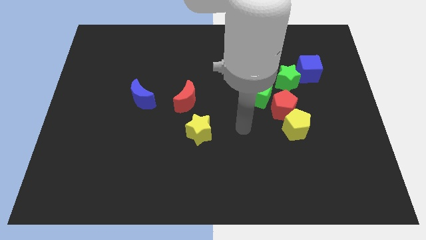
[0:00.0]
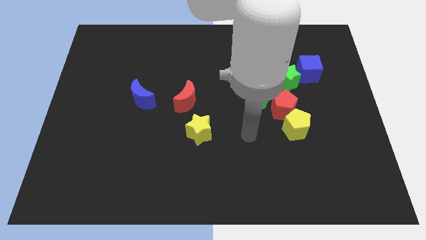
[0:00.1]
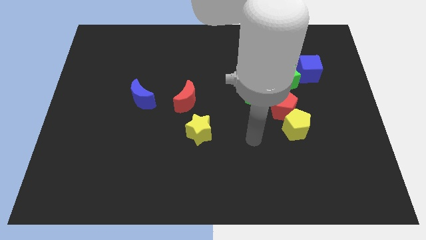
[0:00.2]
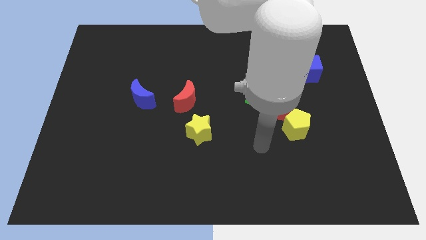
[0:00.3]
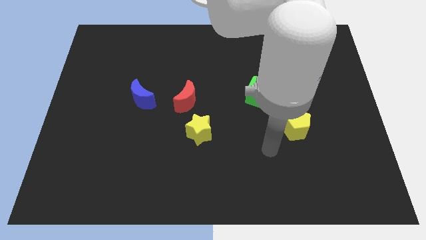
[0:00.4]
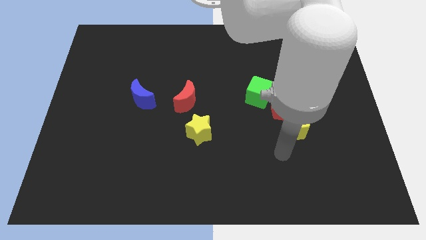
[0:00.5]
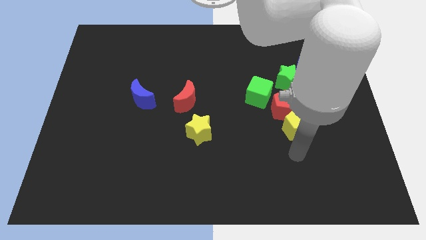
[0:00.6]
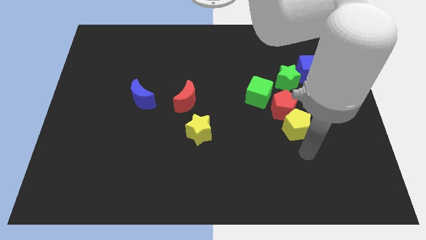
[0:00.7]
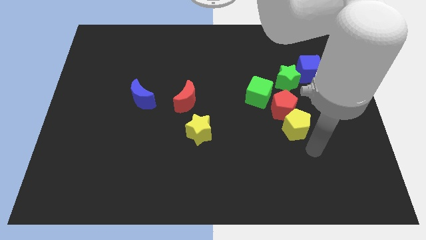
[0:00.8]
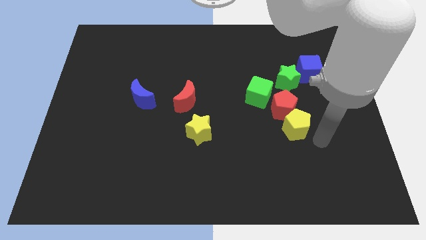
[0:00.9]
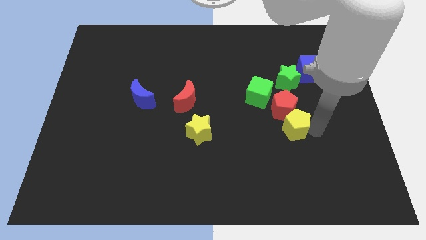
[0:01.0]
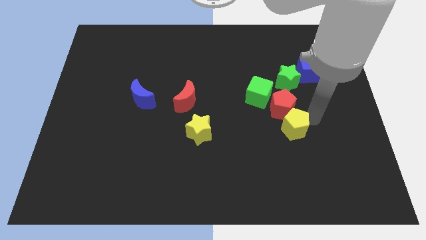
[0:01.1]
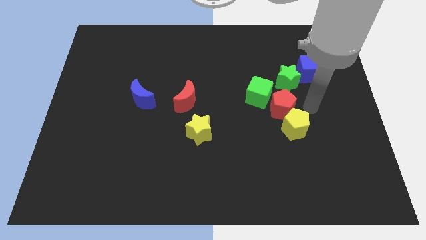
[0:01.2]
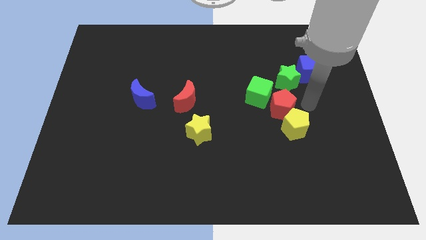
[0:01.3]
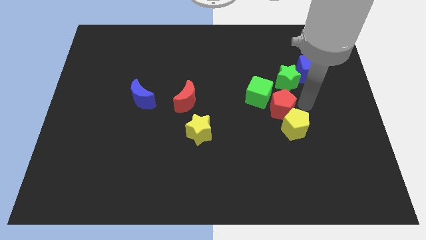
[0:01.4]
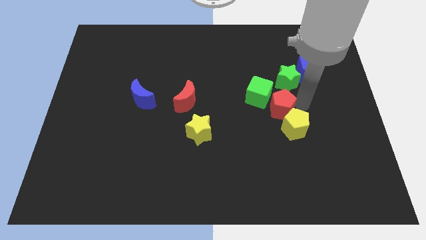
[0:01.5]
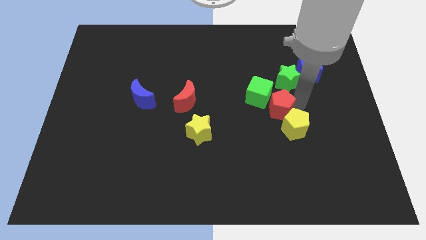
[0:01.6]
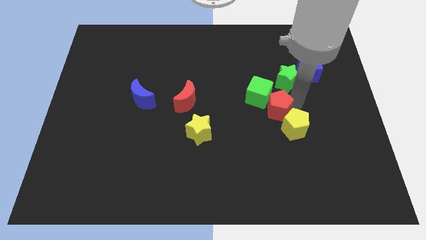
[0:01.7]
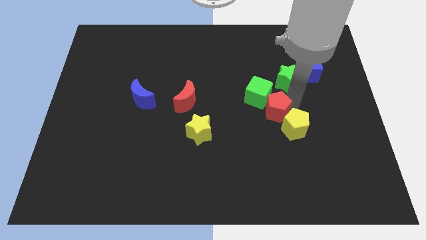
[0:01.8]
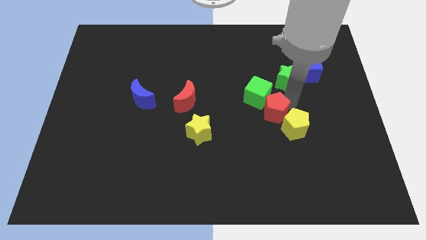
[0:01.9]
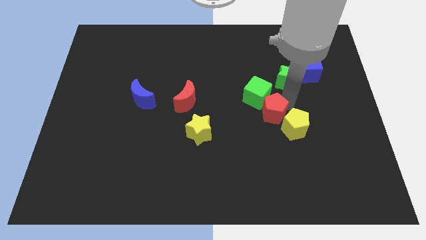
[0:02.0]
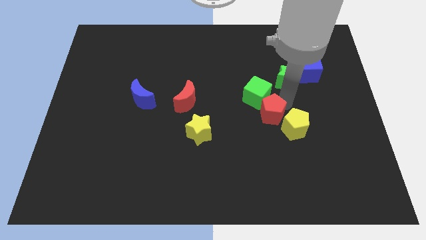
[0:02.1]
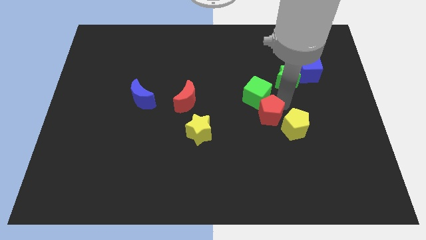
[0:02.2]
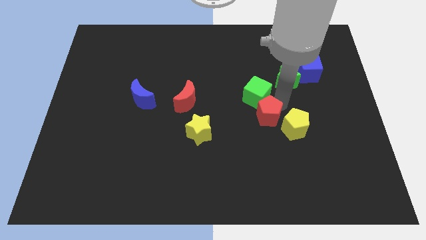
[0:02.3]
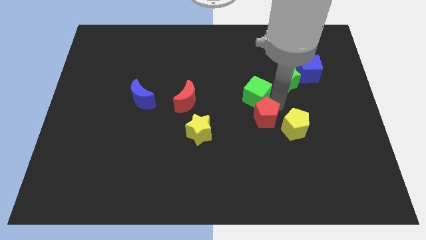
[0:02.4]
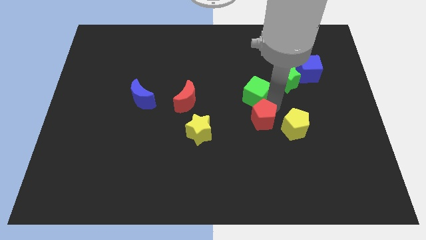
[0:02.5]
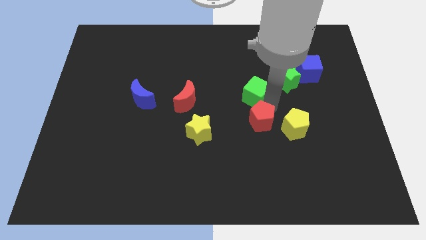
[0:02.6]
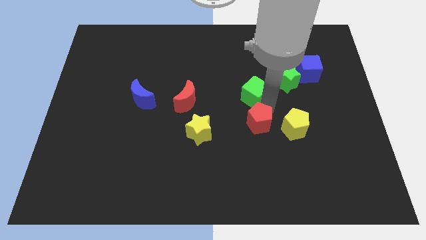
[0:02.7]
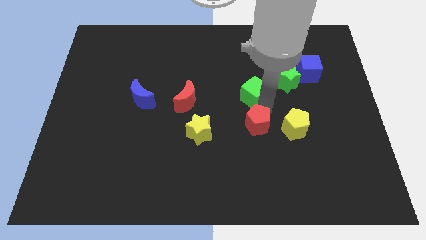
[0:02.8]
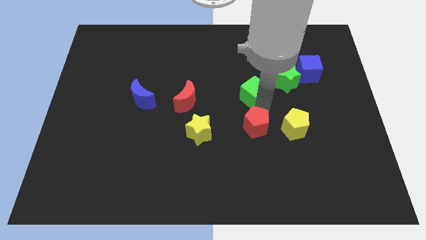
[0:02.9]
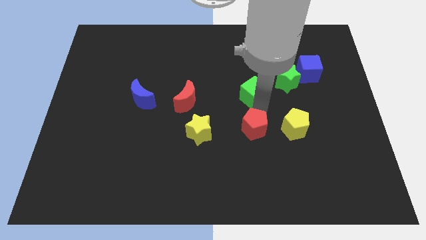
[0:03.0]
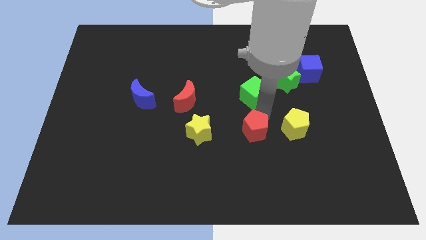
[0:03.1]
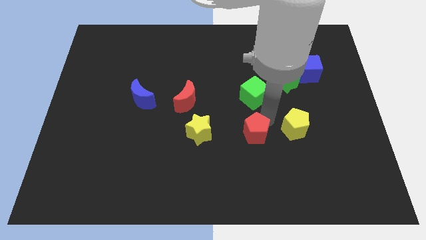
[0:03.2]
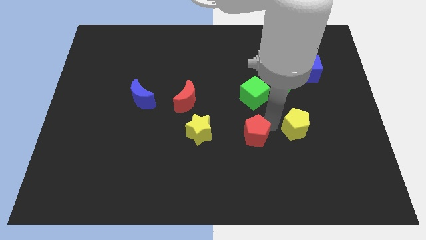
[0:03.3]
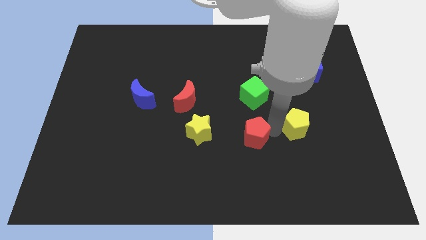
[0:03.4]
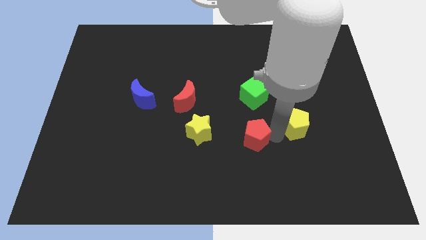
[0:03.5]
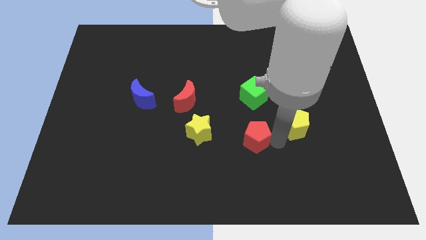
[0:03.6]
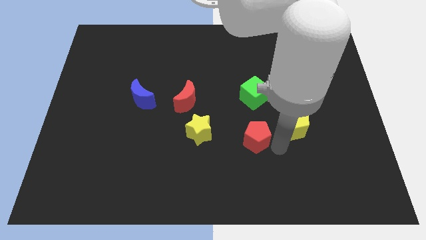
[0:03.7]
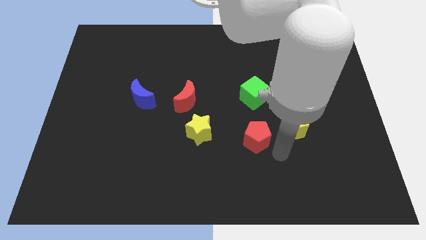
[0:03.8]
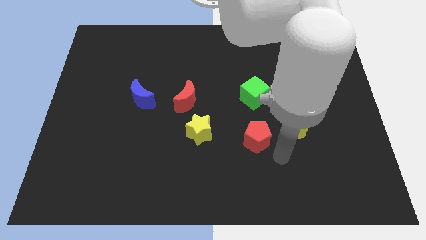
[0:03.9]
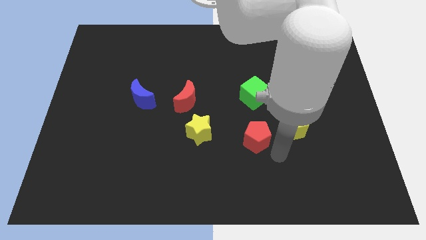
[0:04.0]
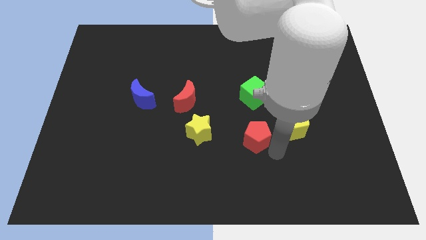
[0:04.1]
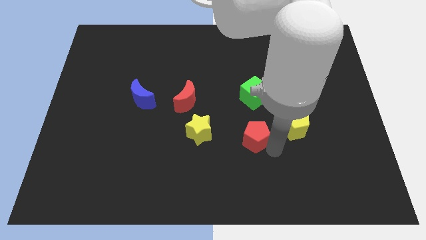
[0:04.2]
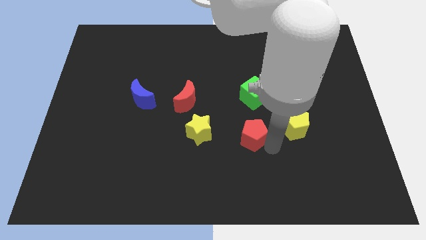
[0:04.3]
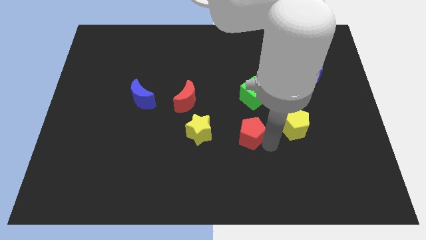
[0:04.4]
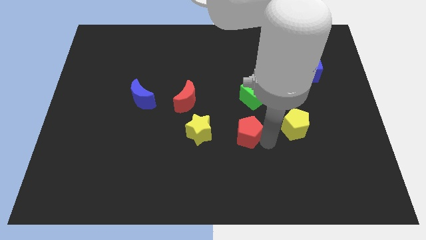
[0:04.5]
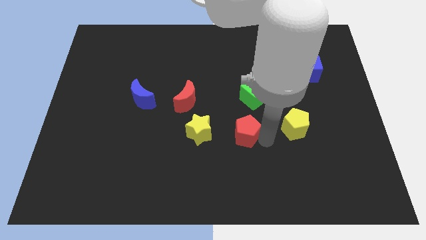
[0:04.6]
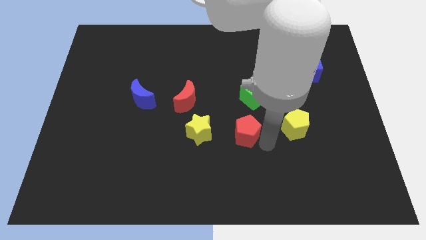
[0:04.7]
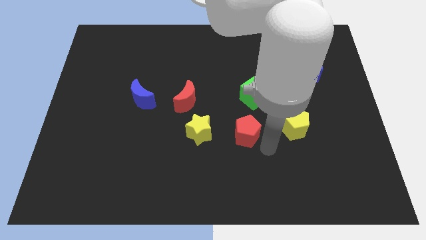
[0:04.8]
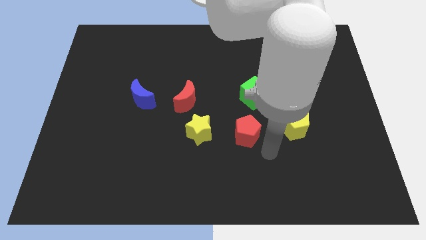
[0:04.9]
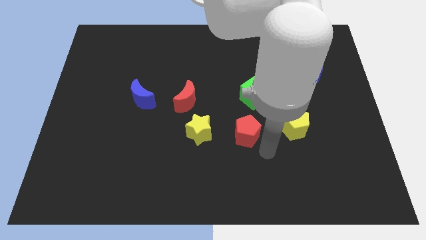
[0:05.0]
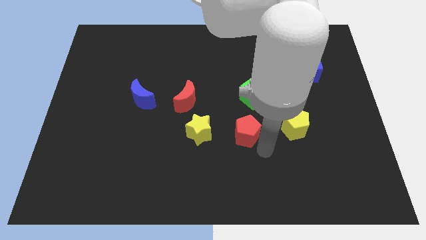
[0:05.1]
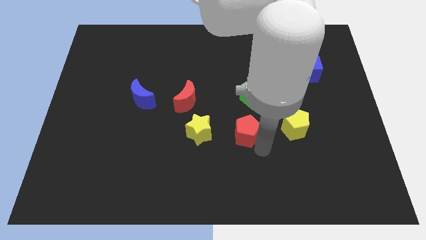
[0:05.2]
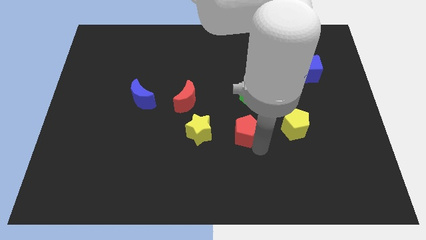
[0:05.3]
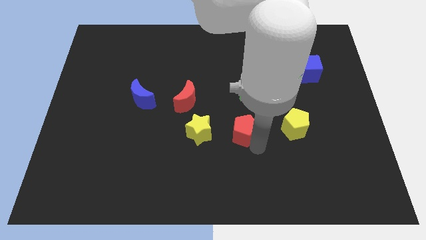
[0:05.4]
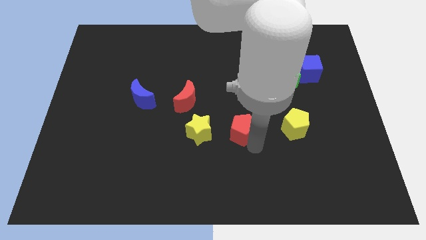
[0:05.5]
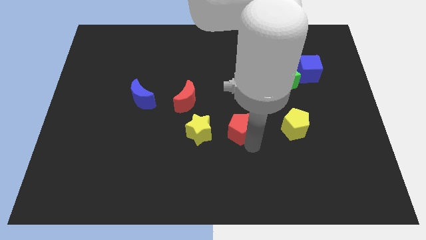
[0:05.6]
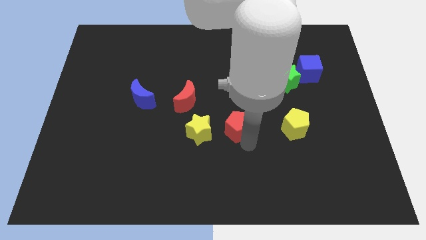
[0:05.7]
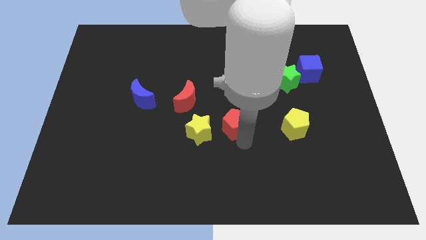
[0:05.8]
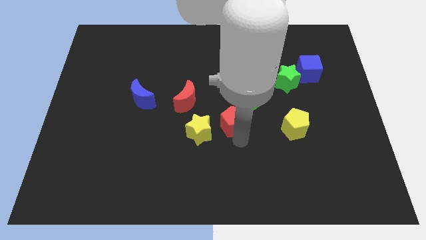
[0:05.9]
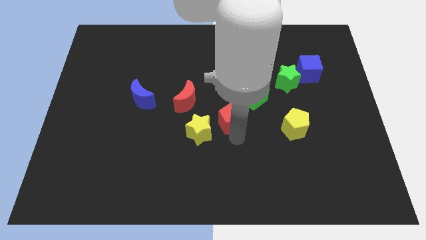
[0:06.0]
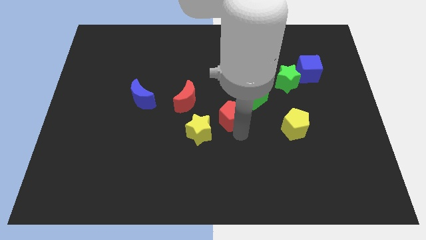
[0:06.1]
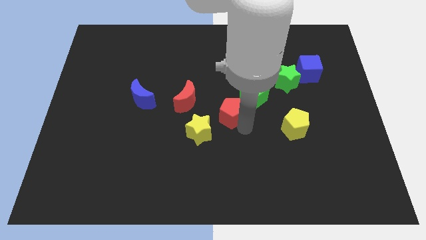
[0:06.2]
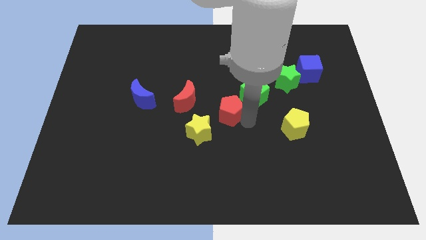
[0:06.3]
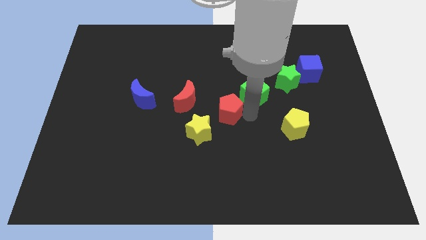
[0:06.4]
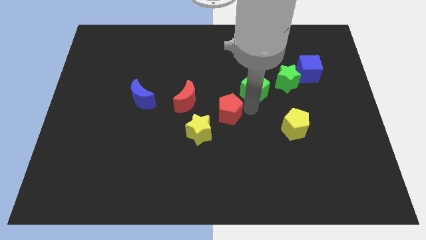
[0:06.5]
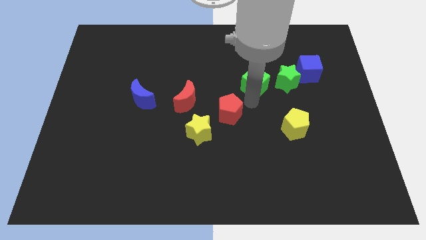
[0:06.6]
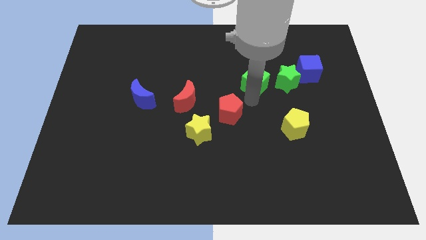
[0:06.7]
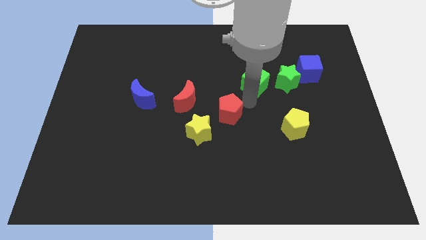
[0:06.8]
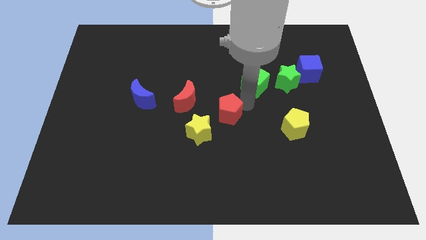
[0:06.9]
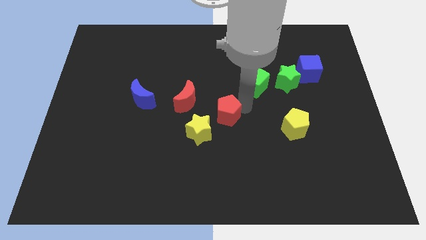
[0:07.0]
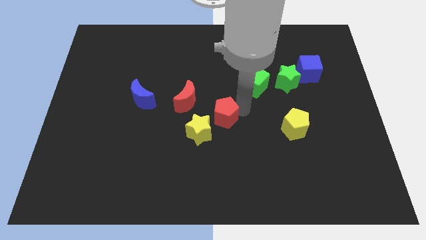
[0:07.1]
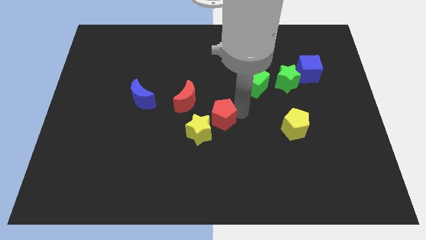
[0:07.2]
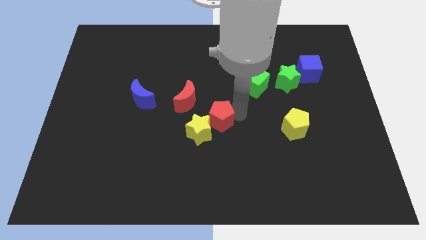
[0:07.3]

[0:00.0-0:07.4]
move the red pentagon to the yellow star

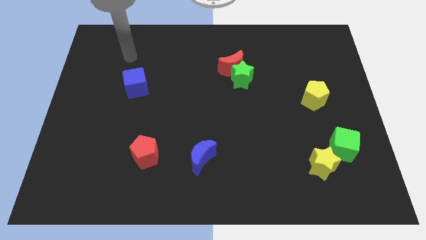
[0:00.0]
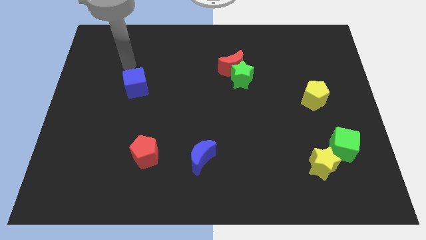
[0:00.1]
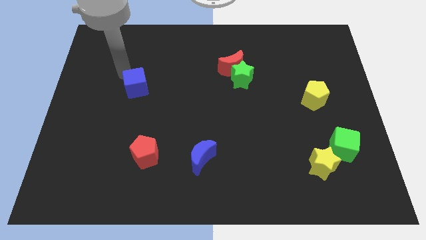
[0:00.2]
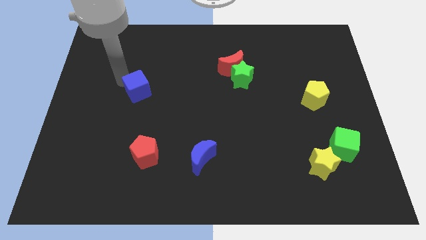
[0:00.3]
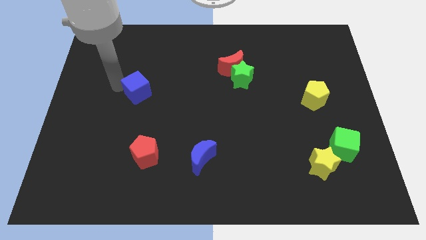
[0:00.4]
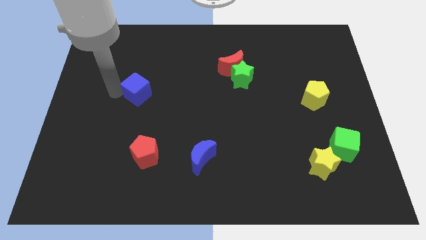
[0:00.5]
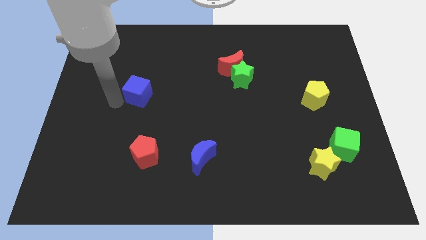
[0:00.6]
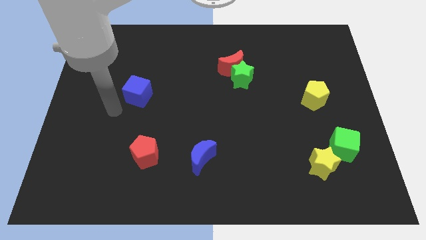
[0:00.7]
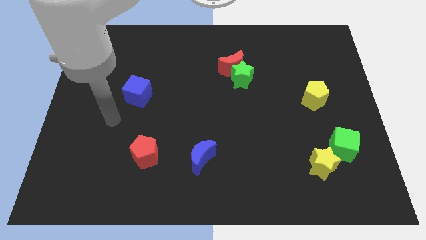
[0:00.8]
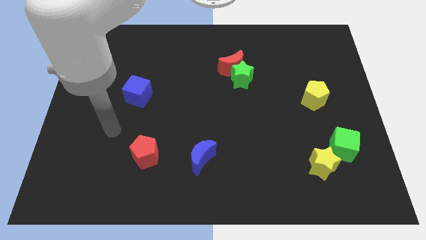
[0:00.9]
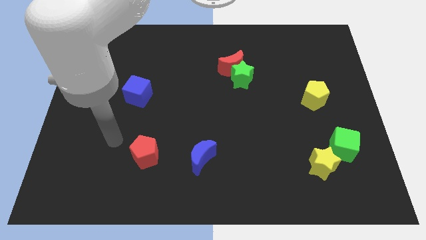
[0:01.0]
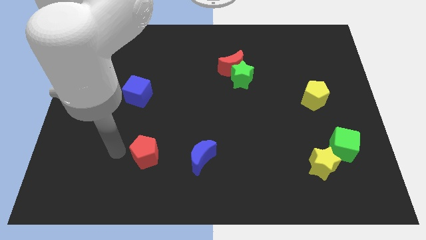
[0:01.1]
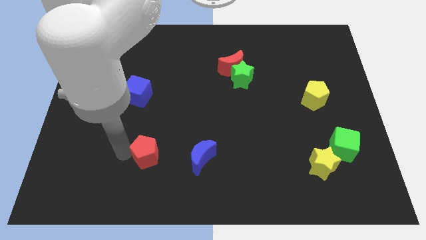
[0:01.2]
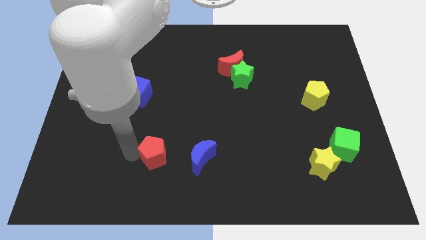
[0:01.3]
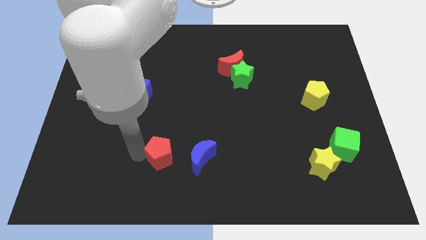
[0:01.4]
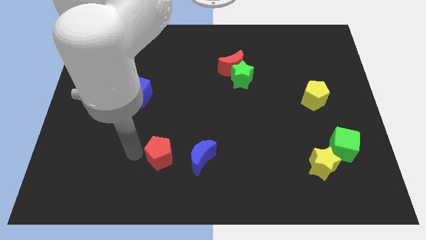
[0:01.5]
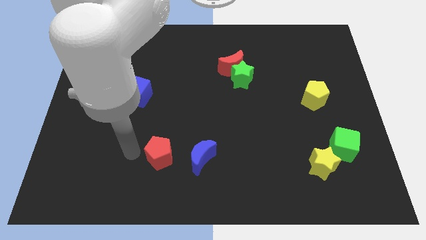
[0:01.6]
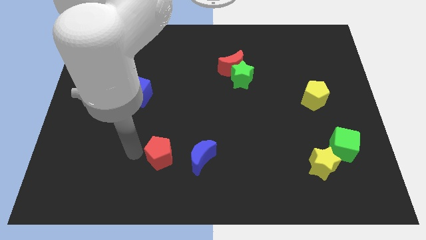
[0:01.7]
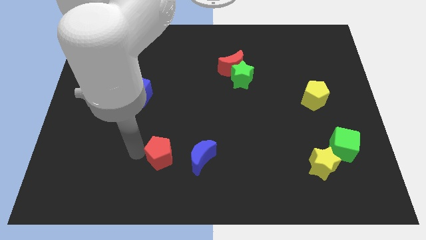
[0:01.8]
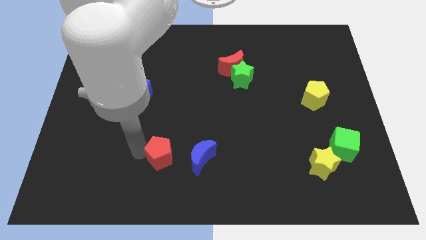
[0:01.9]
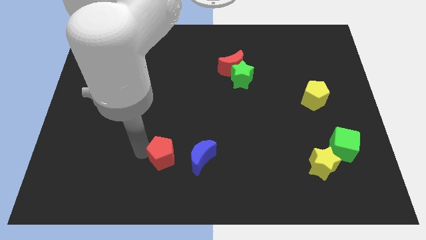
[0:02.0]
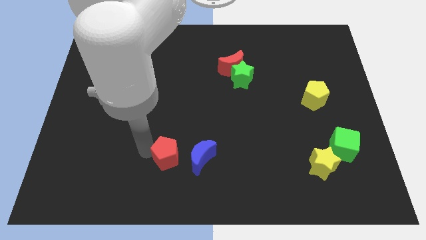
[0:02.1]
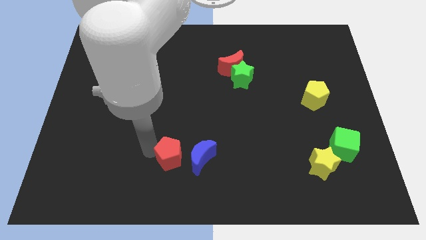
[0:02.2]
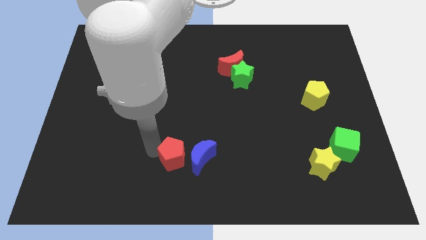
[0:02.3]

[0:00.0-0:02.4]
move the red pentagon towards the blue moon
